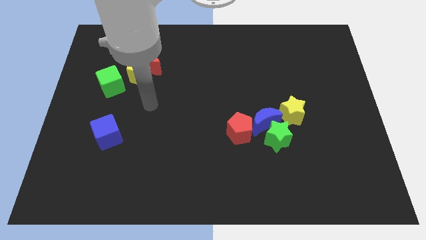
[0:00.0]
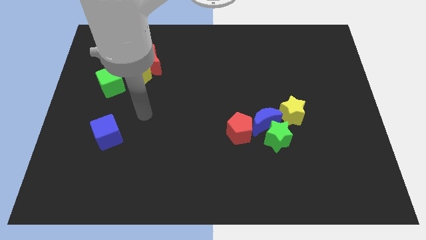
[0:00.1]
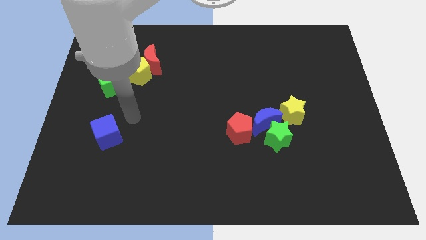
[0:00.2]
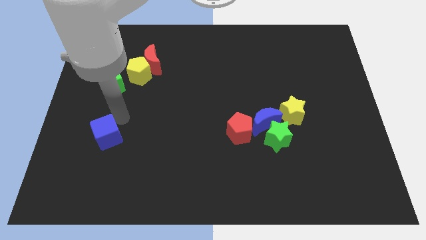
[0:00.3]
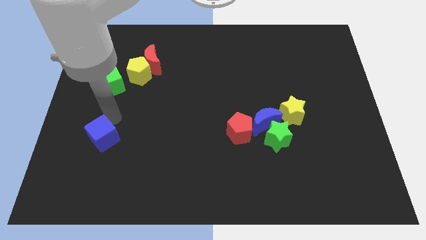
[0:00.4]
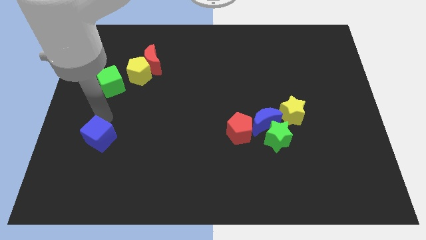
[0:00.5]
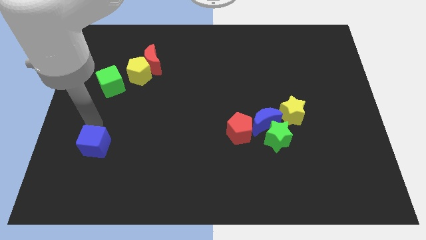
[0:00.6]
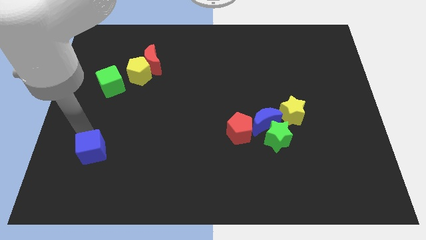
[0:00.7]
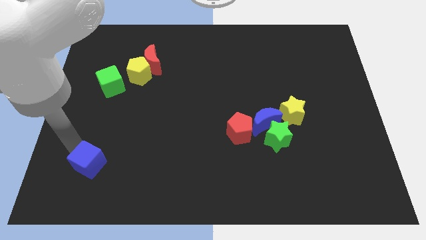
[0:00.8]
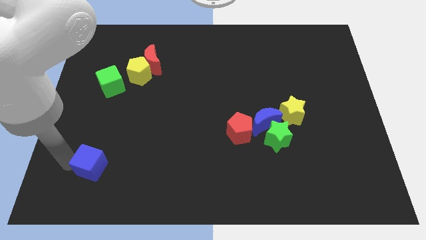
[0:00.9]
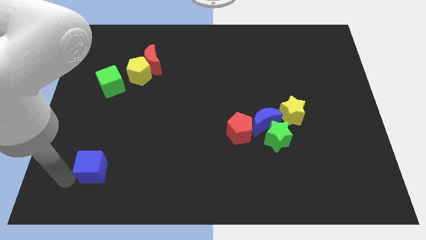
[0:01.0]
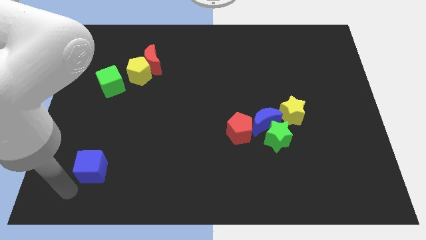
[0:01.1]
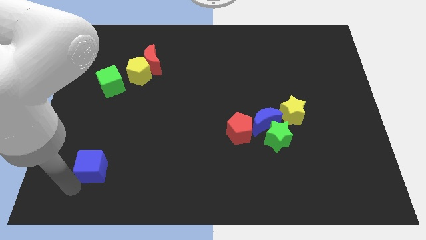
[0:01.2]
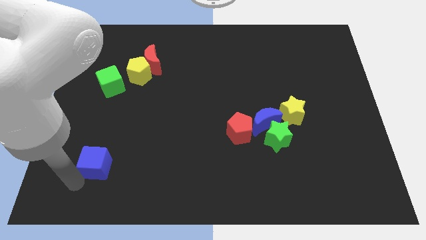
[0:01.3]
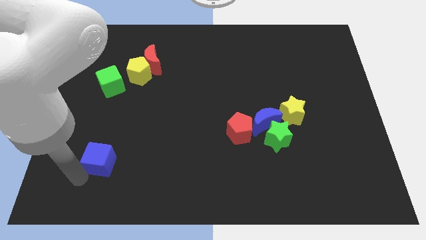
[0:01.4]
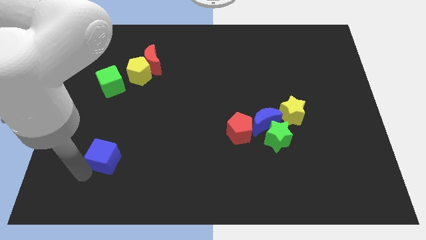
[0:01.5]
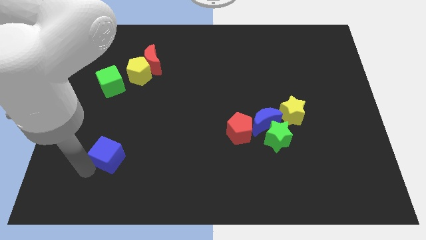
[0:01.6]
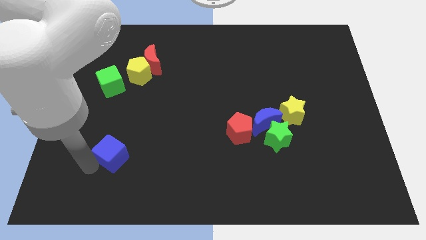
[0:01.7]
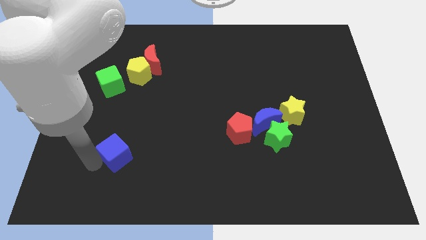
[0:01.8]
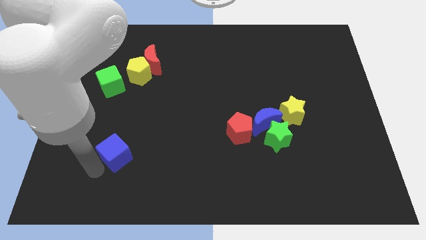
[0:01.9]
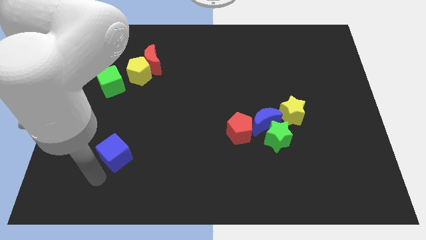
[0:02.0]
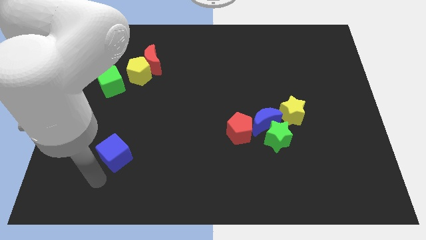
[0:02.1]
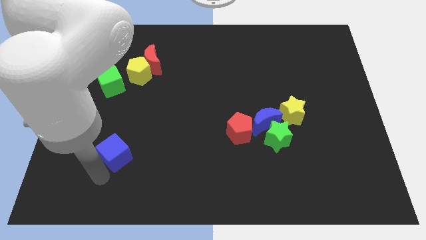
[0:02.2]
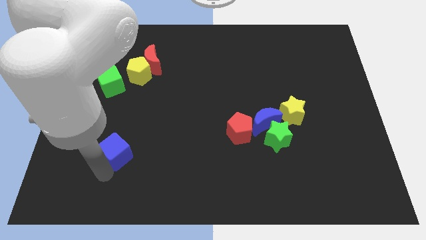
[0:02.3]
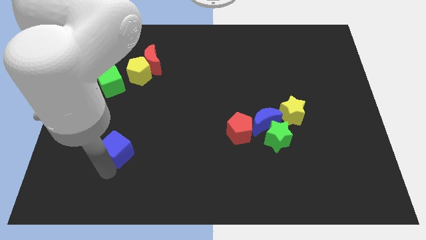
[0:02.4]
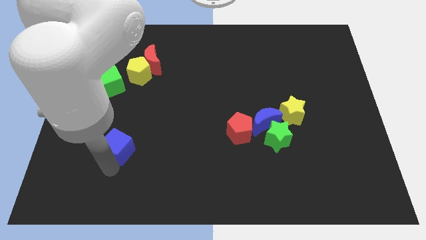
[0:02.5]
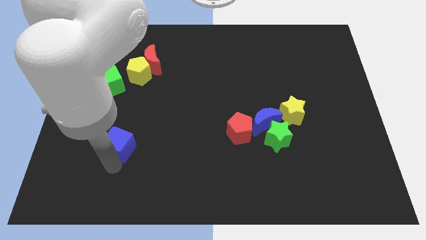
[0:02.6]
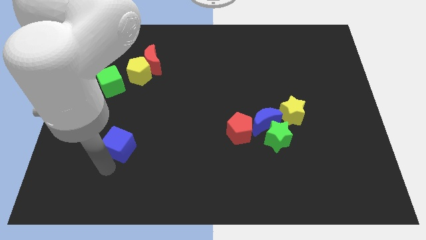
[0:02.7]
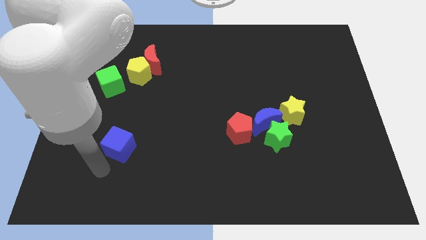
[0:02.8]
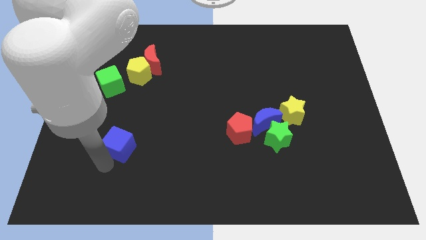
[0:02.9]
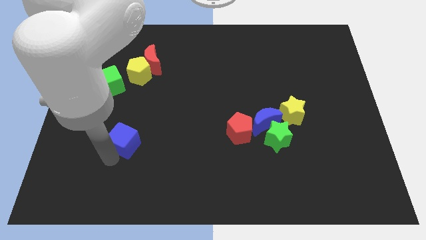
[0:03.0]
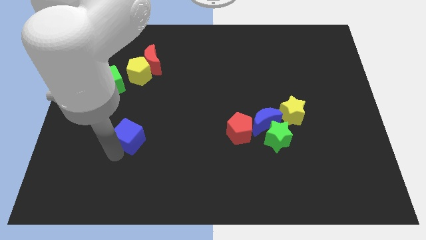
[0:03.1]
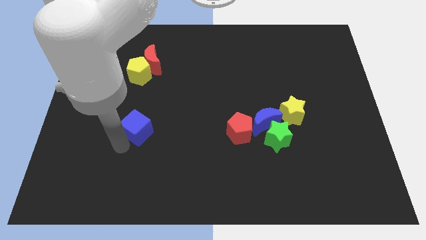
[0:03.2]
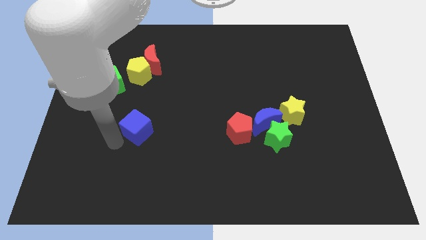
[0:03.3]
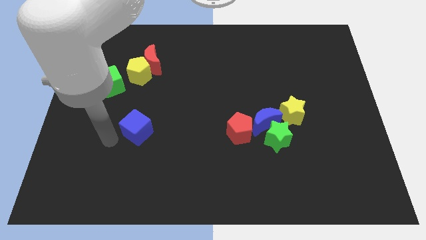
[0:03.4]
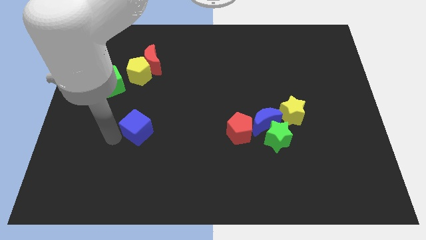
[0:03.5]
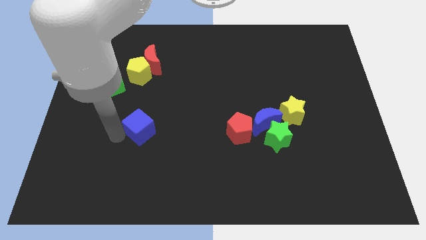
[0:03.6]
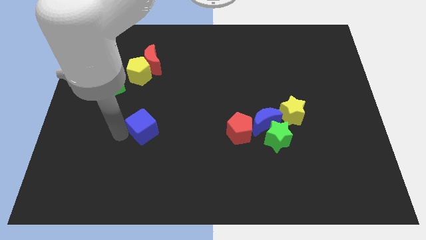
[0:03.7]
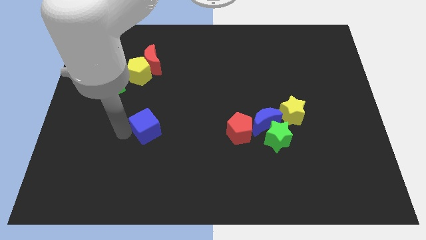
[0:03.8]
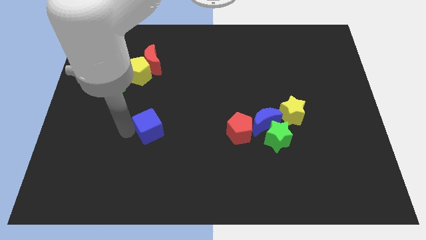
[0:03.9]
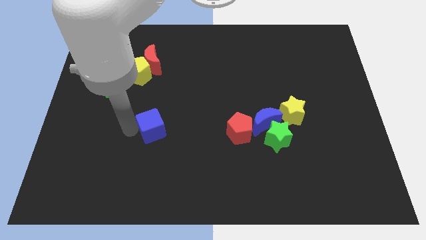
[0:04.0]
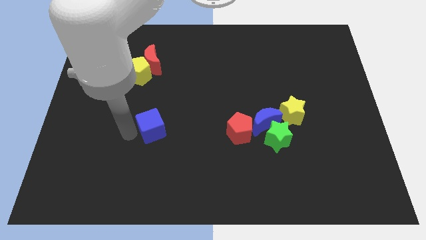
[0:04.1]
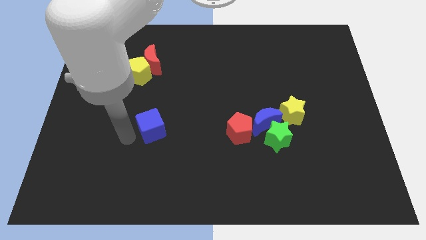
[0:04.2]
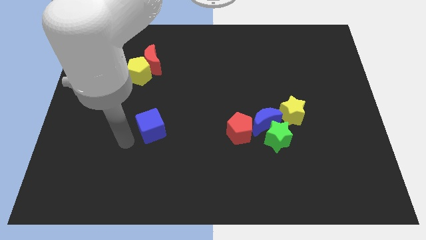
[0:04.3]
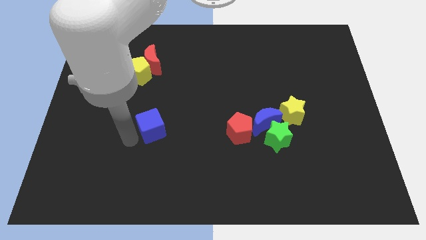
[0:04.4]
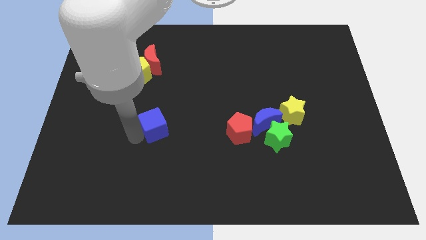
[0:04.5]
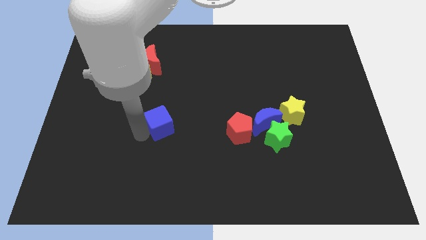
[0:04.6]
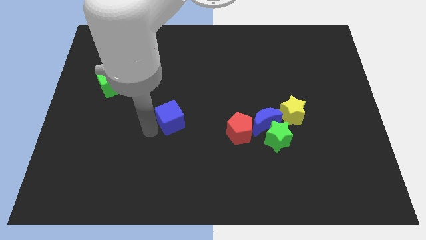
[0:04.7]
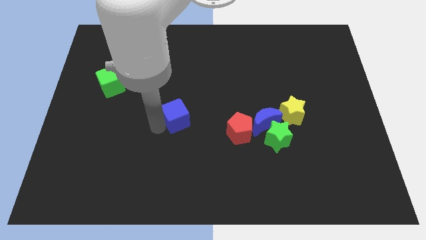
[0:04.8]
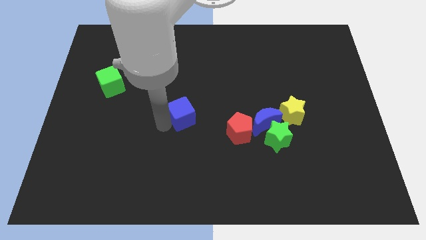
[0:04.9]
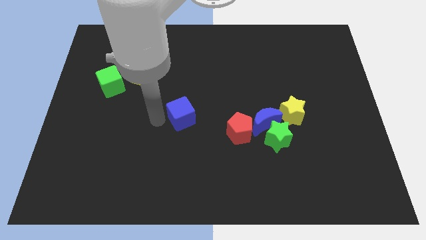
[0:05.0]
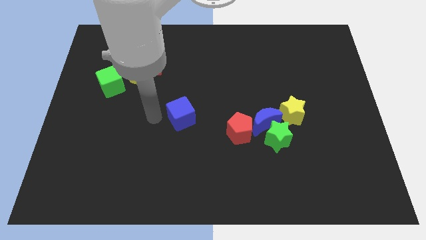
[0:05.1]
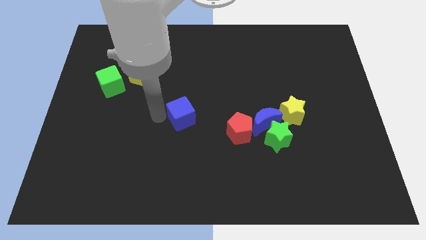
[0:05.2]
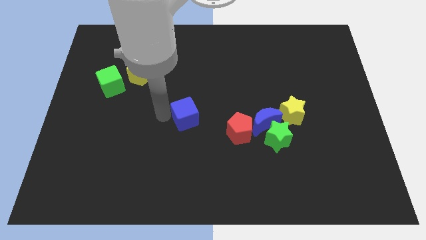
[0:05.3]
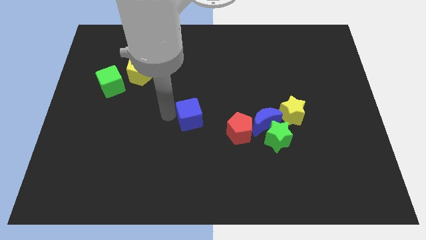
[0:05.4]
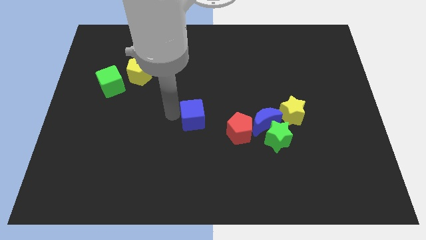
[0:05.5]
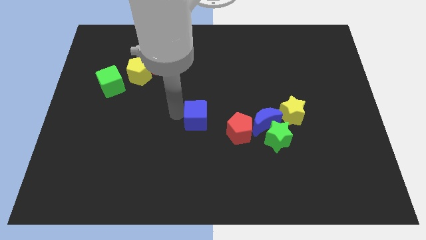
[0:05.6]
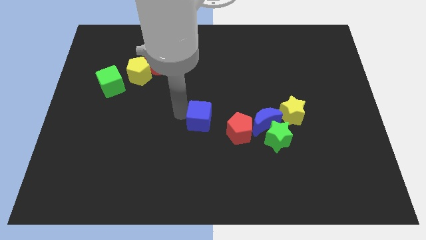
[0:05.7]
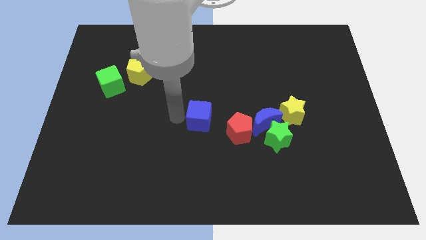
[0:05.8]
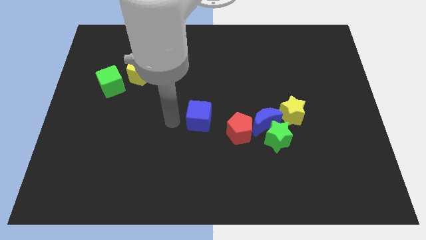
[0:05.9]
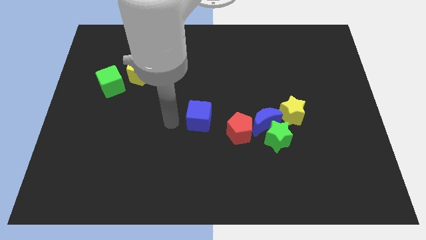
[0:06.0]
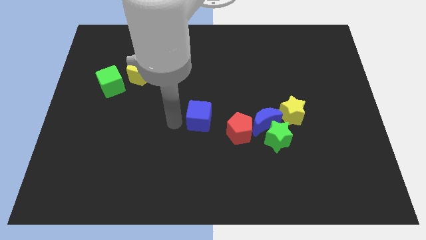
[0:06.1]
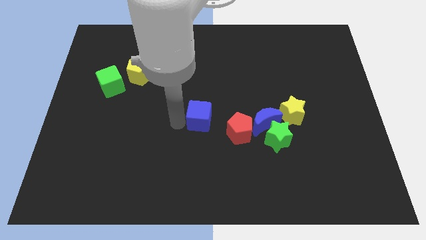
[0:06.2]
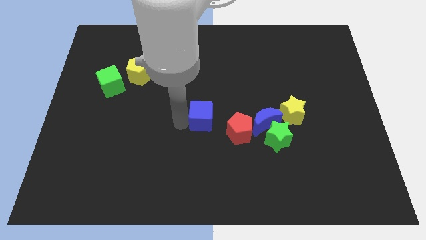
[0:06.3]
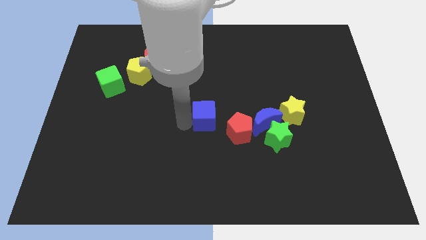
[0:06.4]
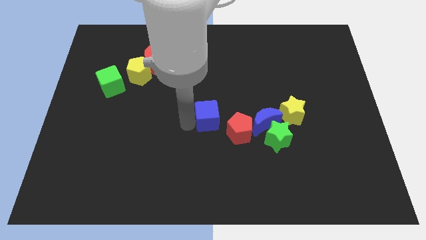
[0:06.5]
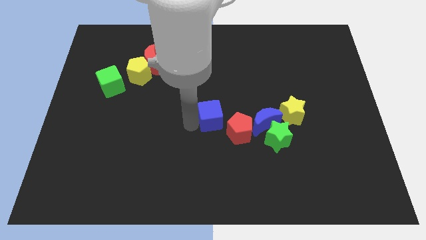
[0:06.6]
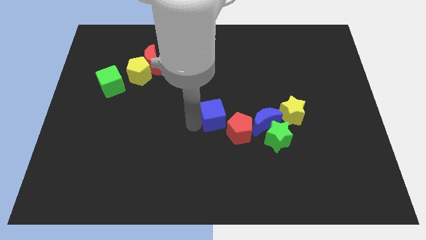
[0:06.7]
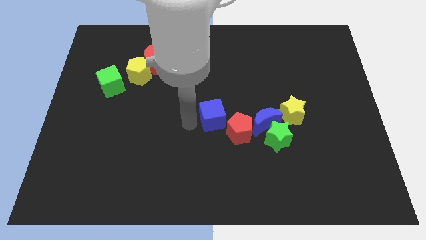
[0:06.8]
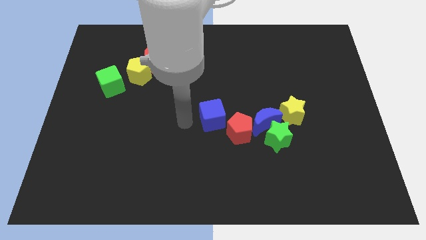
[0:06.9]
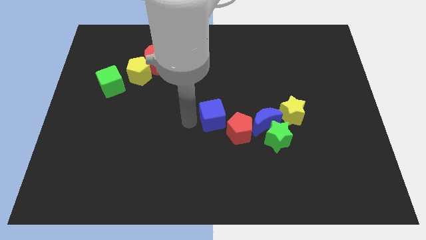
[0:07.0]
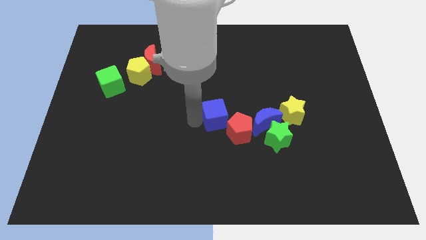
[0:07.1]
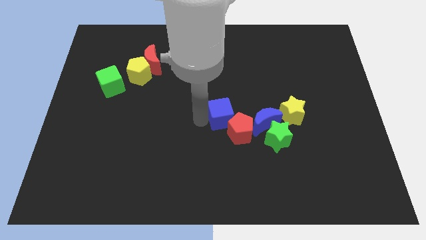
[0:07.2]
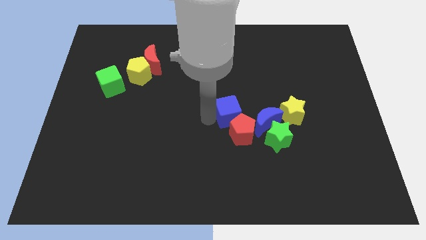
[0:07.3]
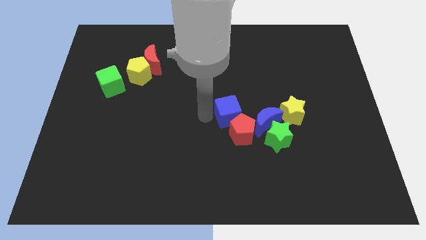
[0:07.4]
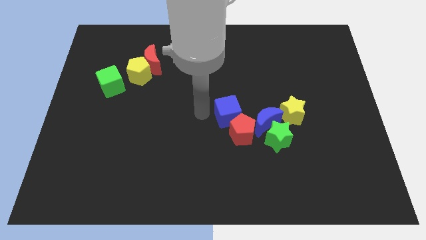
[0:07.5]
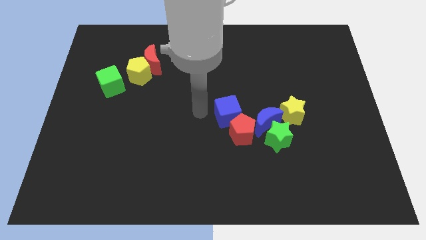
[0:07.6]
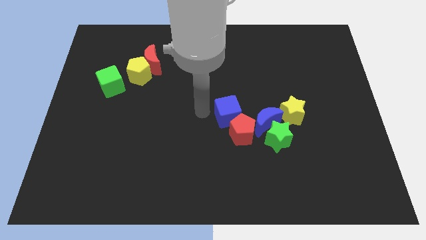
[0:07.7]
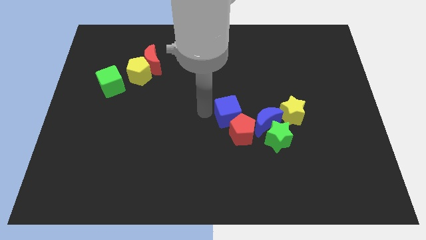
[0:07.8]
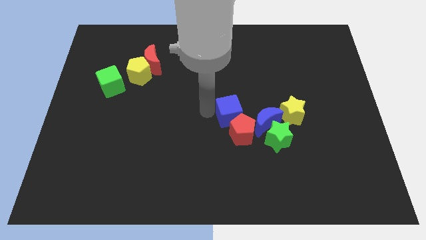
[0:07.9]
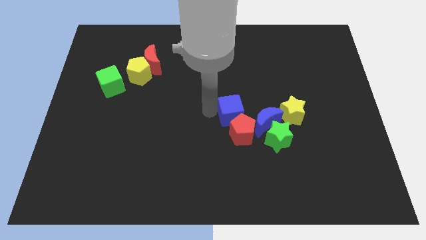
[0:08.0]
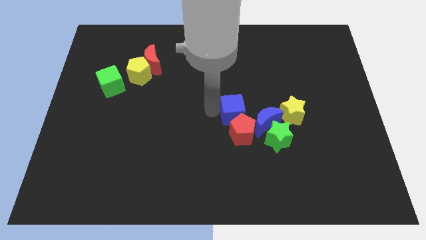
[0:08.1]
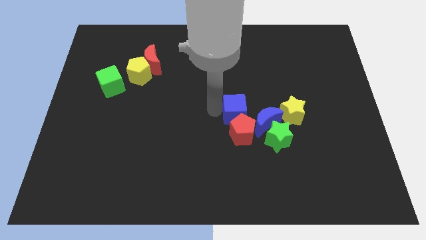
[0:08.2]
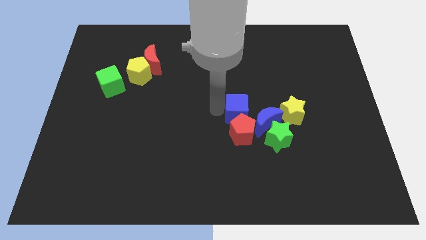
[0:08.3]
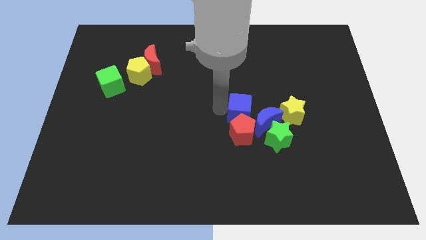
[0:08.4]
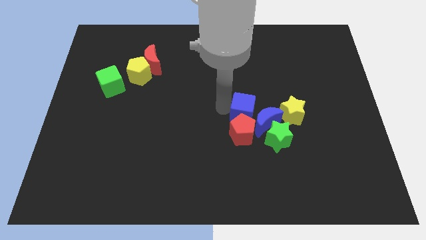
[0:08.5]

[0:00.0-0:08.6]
move the blue cube towards the blue moon
